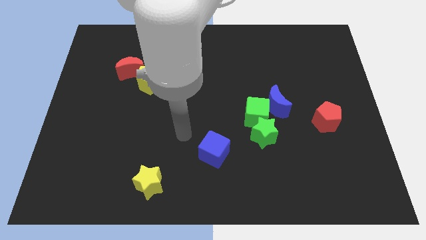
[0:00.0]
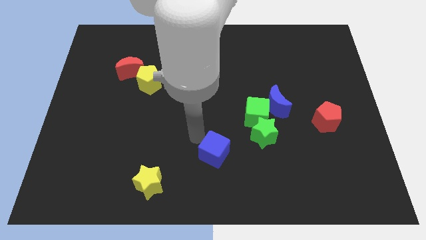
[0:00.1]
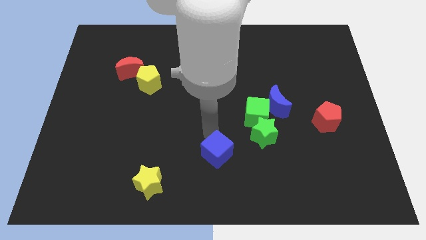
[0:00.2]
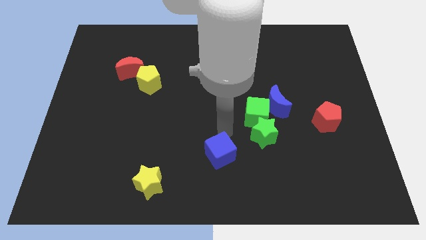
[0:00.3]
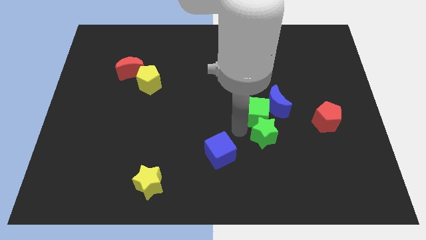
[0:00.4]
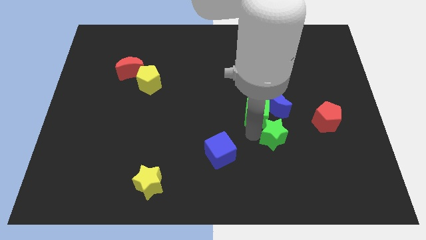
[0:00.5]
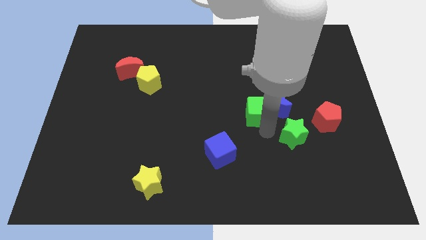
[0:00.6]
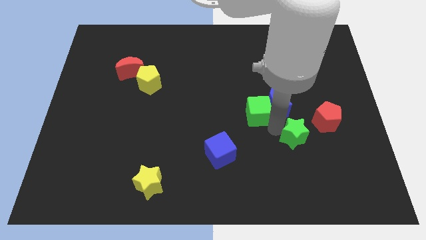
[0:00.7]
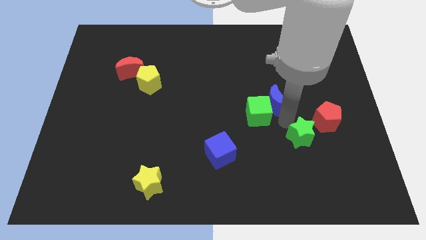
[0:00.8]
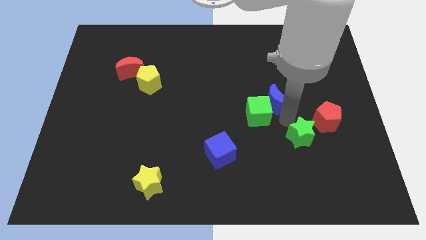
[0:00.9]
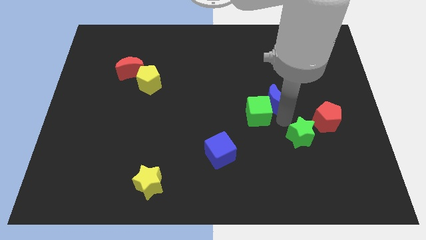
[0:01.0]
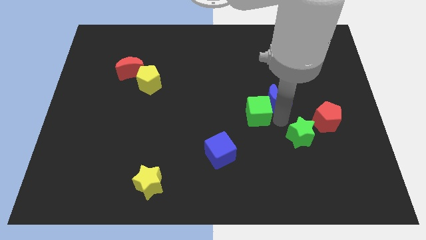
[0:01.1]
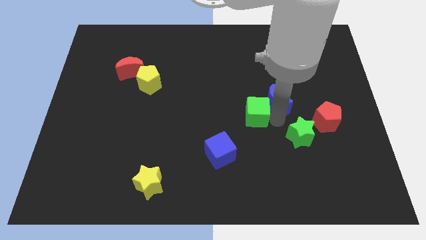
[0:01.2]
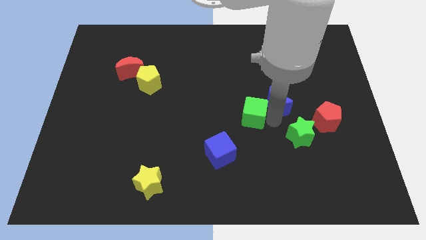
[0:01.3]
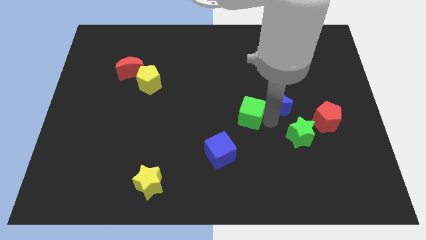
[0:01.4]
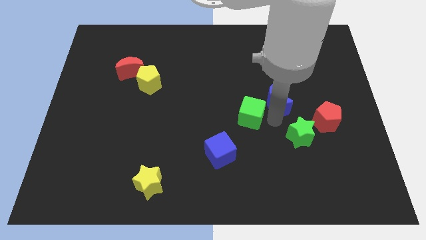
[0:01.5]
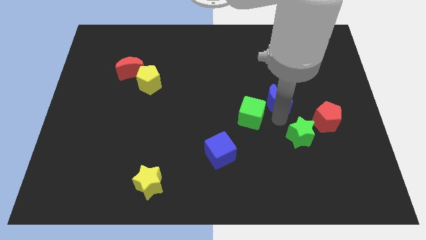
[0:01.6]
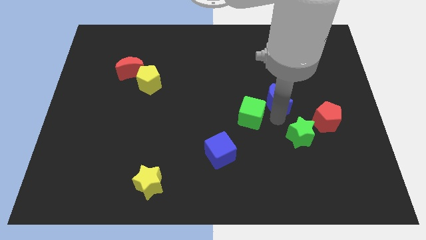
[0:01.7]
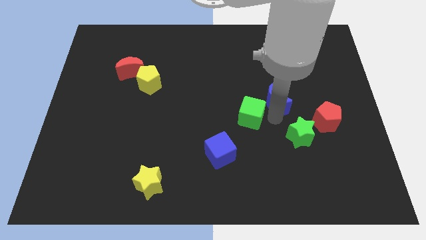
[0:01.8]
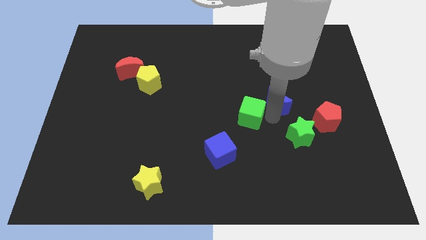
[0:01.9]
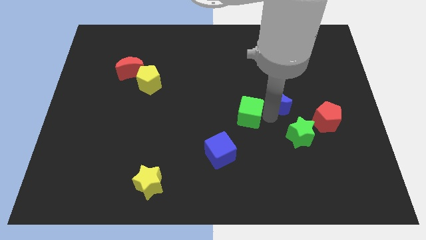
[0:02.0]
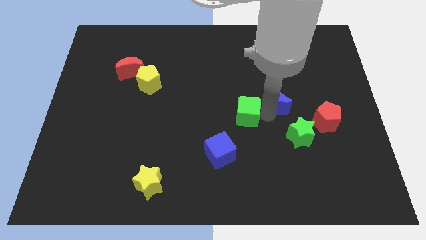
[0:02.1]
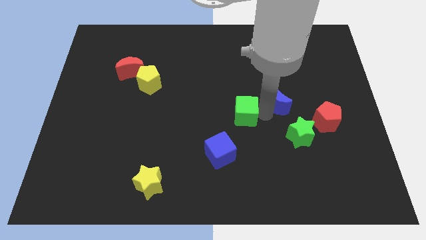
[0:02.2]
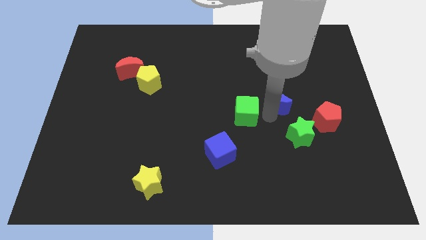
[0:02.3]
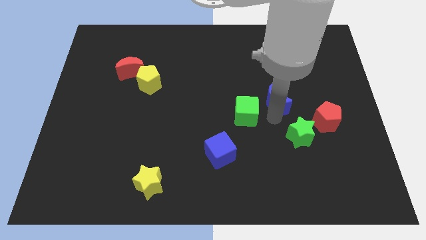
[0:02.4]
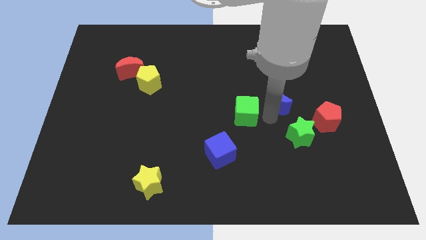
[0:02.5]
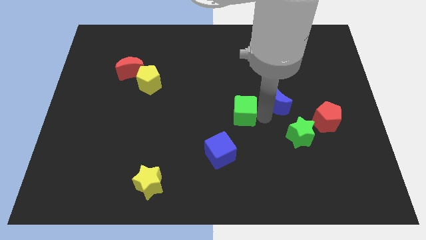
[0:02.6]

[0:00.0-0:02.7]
separate the green cube from the green star and blue moon

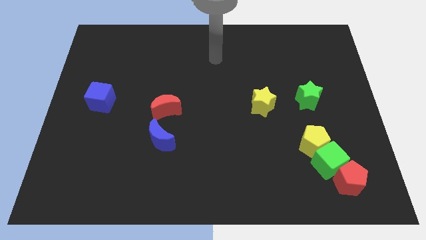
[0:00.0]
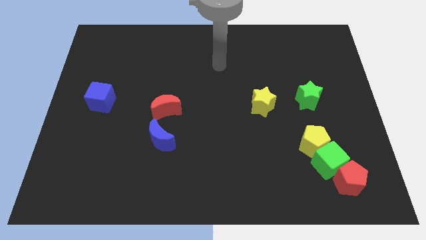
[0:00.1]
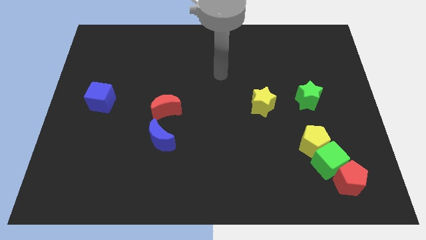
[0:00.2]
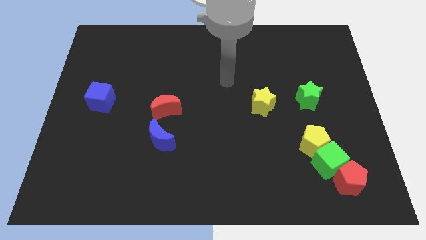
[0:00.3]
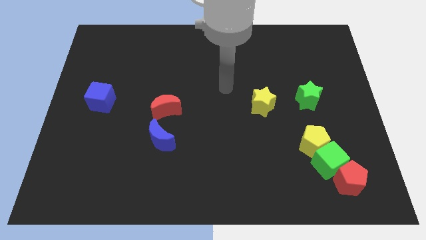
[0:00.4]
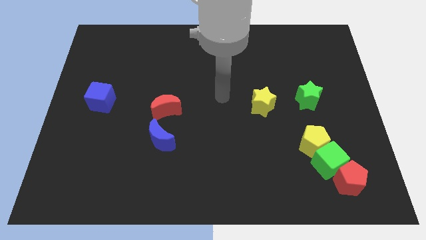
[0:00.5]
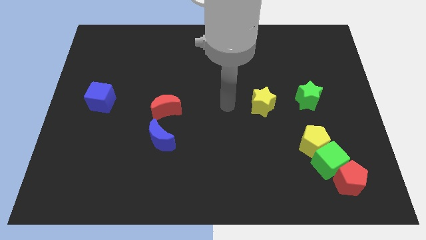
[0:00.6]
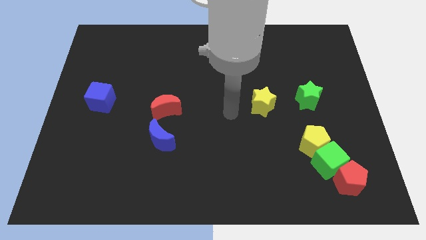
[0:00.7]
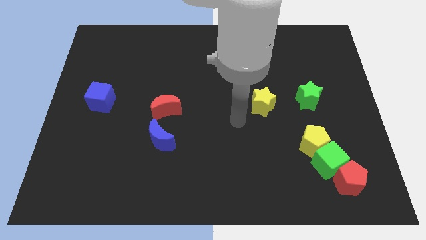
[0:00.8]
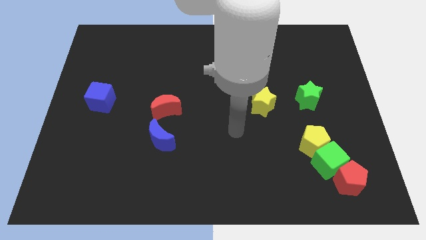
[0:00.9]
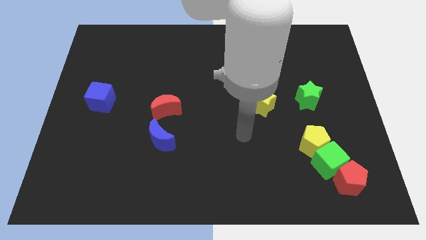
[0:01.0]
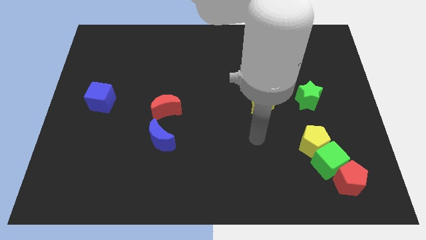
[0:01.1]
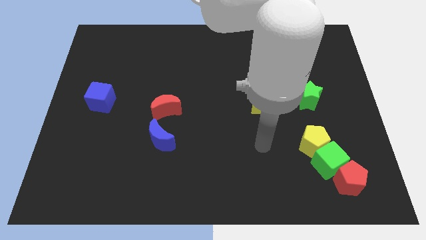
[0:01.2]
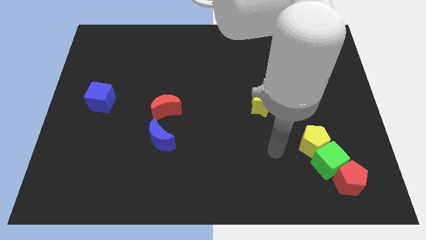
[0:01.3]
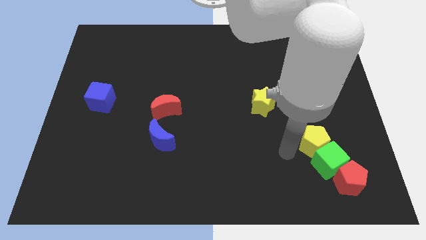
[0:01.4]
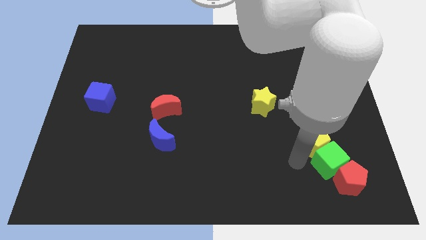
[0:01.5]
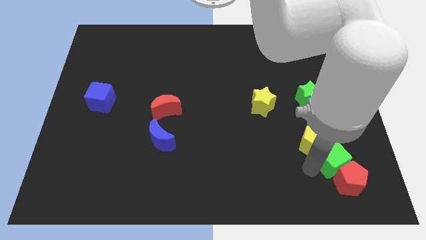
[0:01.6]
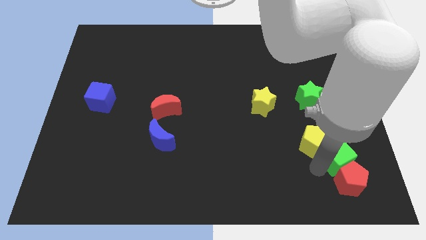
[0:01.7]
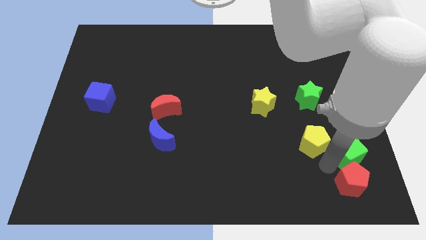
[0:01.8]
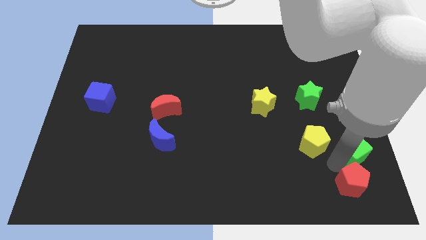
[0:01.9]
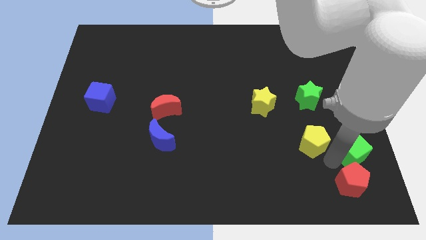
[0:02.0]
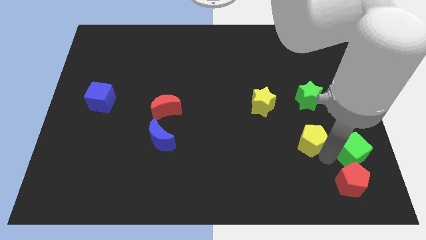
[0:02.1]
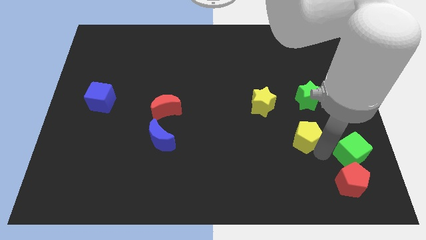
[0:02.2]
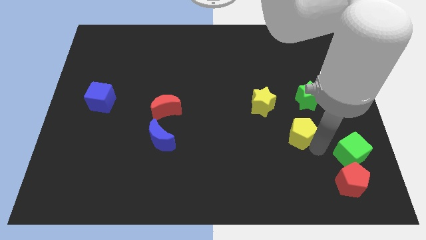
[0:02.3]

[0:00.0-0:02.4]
pull the yellow pentagon apart from the green cube

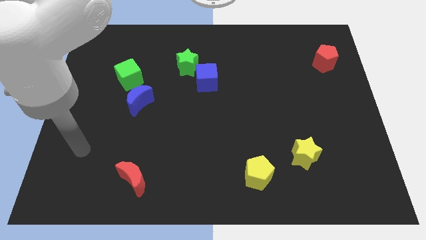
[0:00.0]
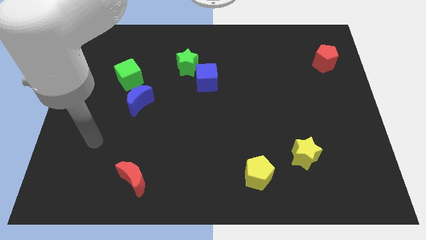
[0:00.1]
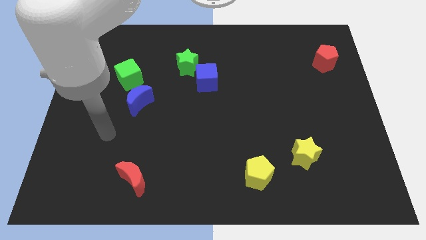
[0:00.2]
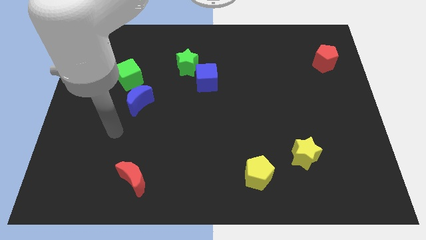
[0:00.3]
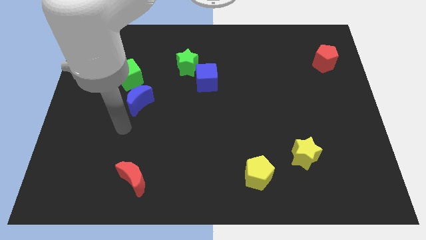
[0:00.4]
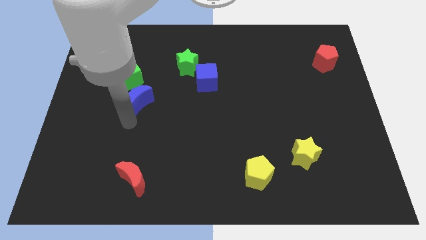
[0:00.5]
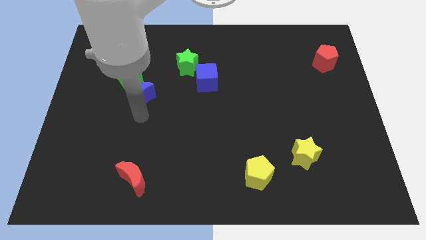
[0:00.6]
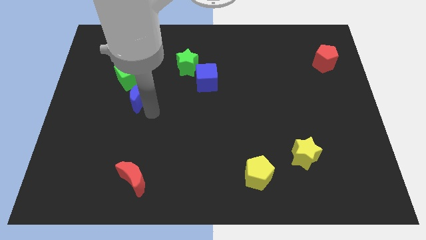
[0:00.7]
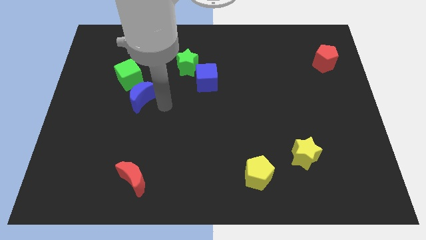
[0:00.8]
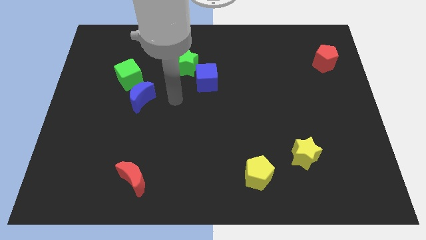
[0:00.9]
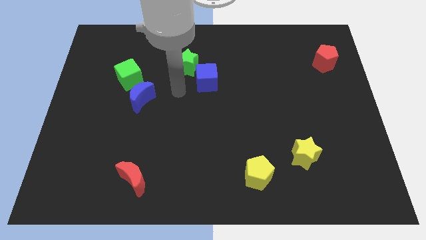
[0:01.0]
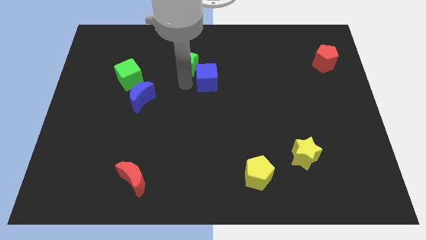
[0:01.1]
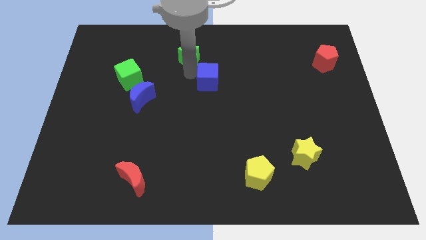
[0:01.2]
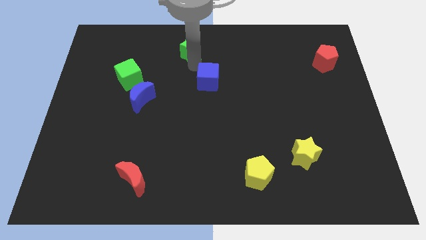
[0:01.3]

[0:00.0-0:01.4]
pull the blue cube apart from the green star

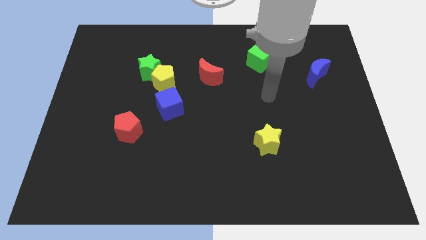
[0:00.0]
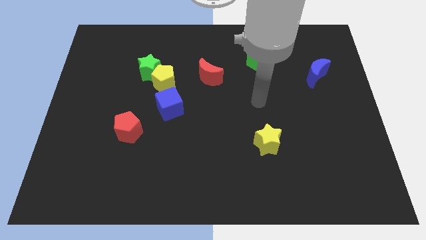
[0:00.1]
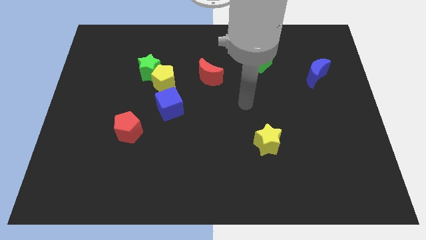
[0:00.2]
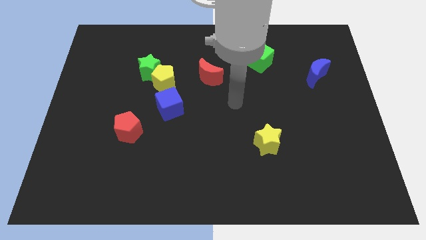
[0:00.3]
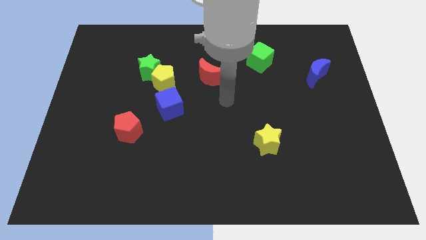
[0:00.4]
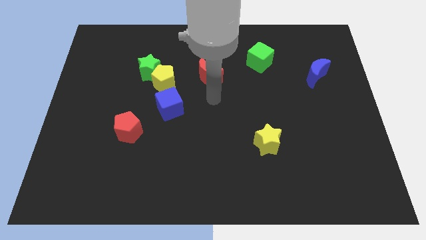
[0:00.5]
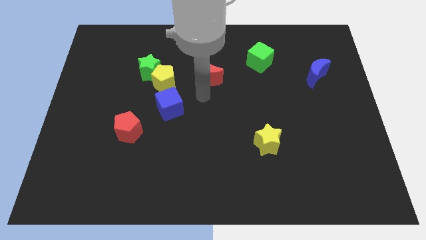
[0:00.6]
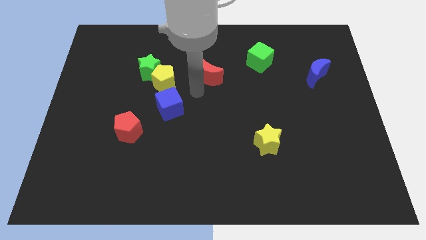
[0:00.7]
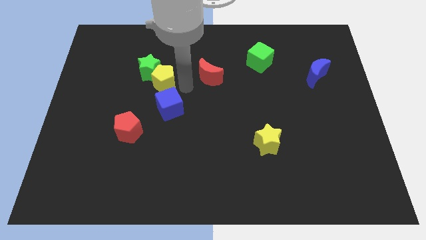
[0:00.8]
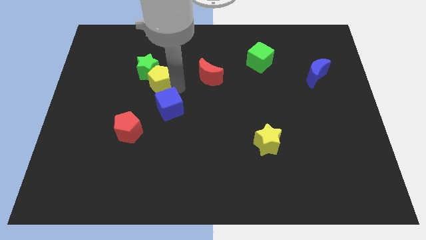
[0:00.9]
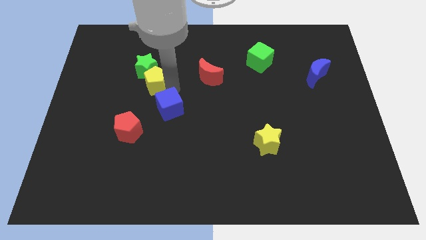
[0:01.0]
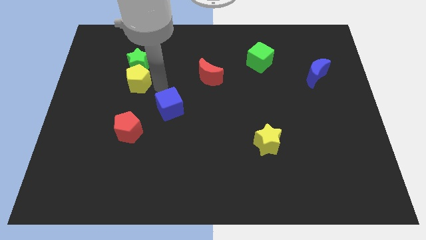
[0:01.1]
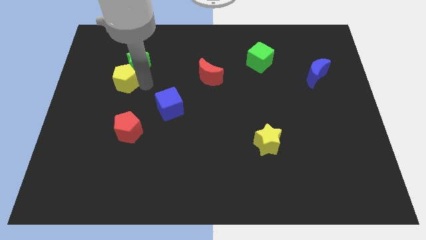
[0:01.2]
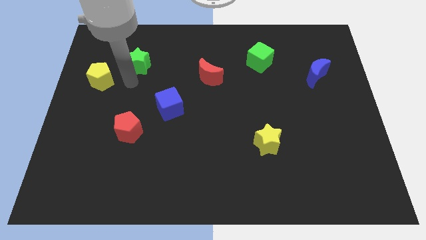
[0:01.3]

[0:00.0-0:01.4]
pull the green star apart from the yellow pentagon

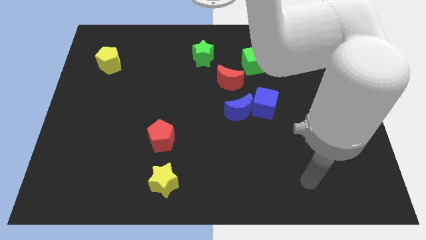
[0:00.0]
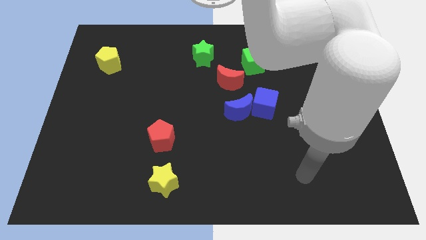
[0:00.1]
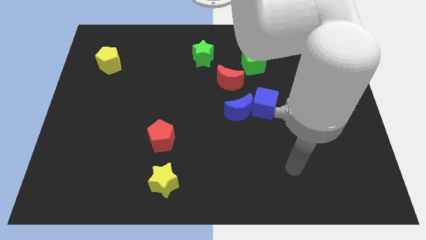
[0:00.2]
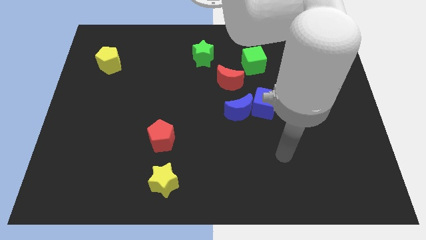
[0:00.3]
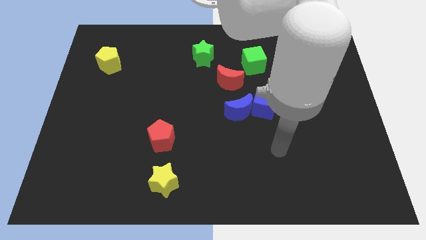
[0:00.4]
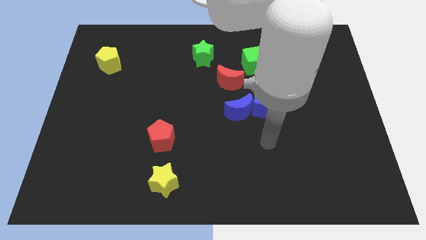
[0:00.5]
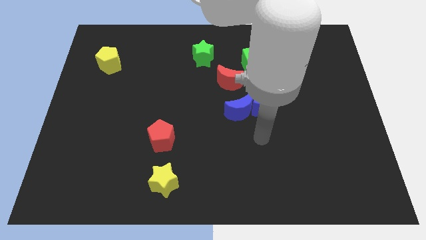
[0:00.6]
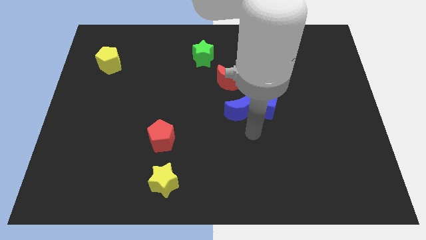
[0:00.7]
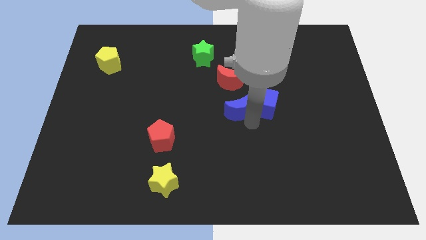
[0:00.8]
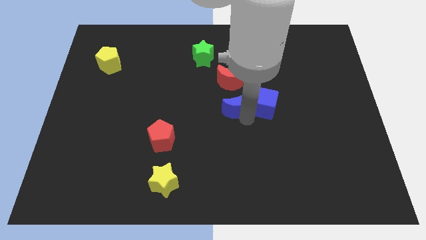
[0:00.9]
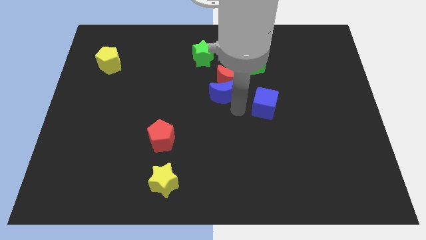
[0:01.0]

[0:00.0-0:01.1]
separate the blue cube from the blue moon

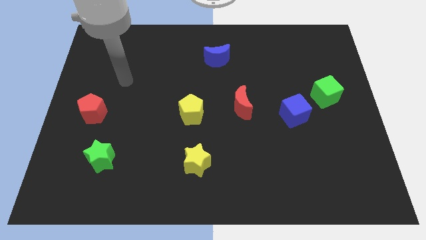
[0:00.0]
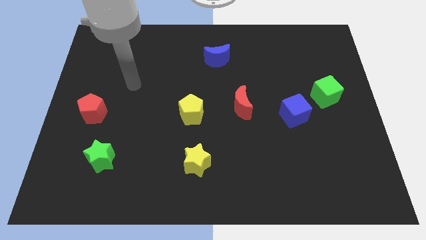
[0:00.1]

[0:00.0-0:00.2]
move the blue cube away from the green cube

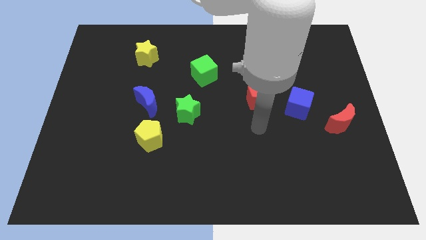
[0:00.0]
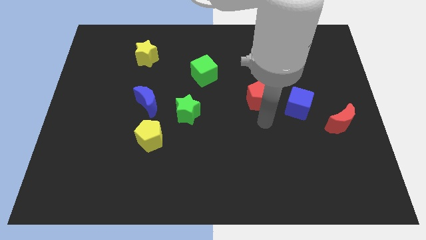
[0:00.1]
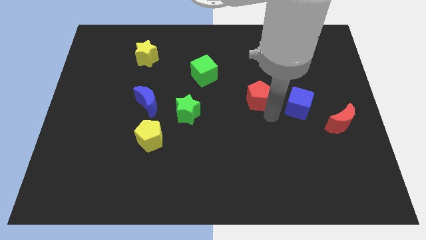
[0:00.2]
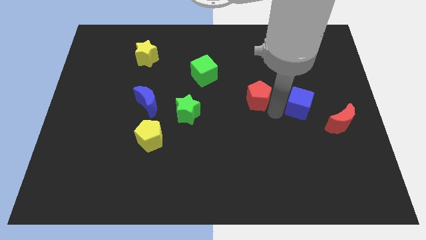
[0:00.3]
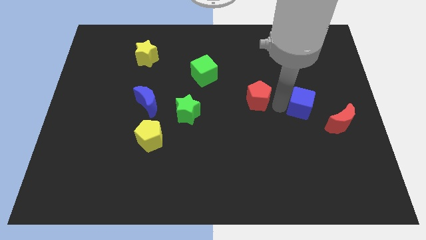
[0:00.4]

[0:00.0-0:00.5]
move the red pentagon away from the blue cube
